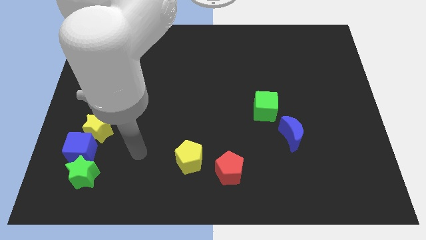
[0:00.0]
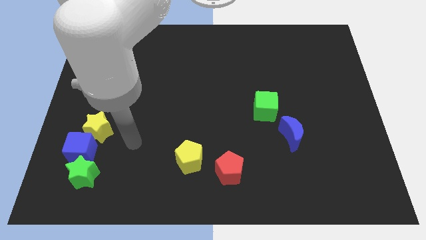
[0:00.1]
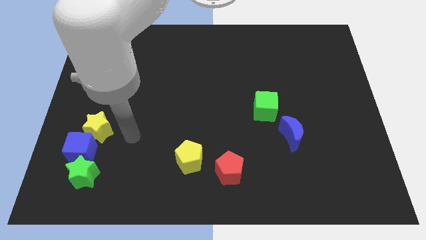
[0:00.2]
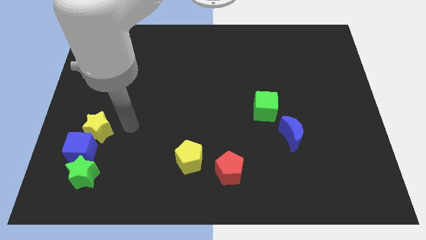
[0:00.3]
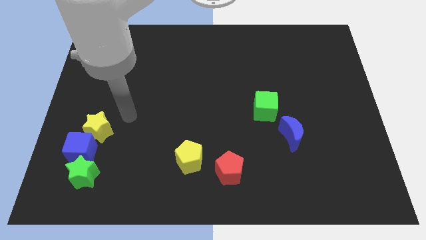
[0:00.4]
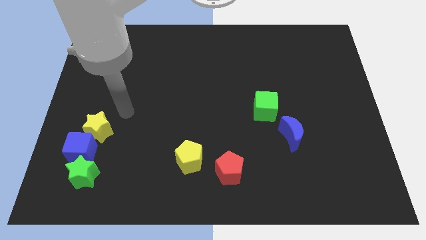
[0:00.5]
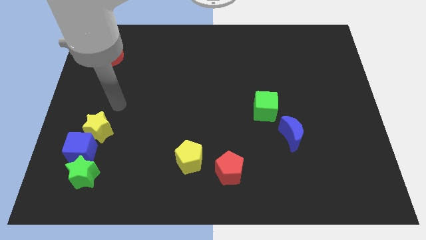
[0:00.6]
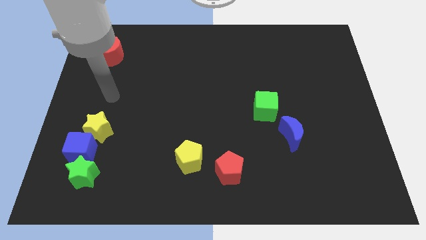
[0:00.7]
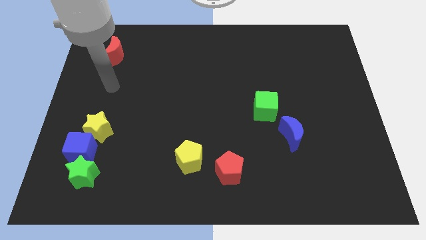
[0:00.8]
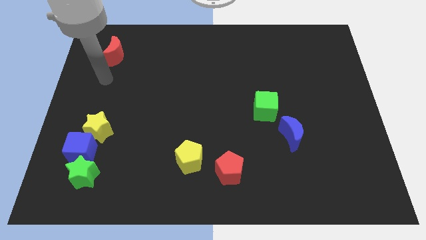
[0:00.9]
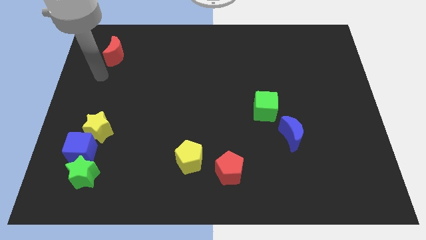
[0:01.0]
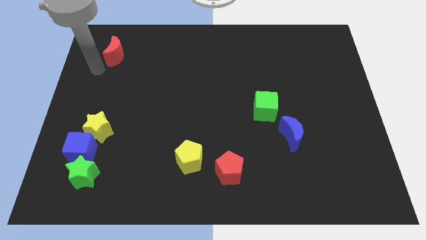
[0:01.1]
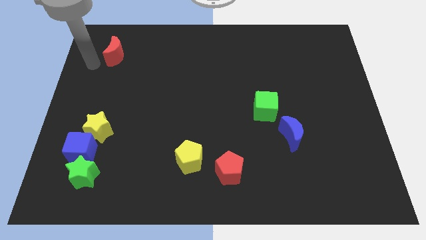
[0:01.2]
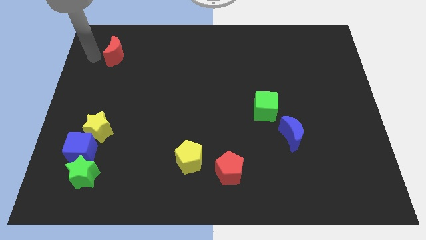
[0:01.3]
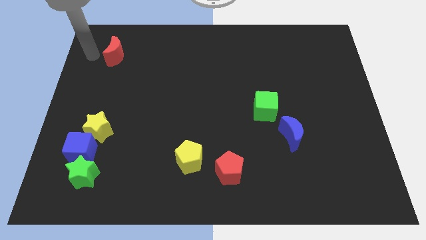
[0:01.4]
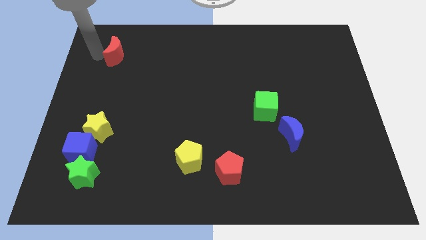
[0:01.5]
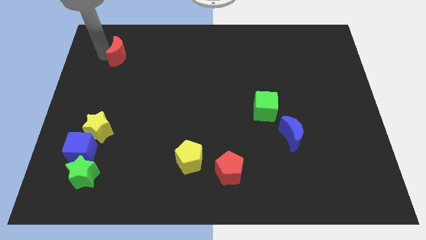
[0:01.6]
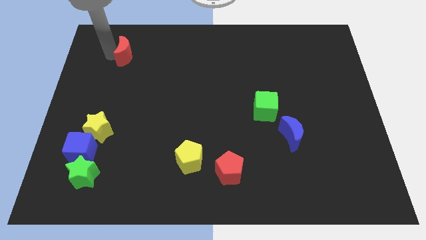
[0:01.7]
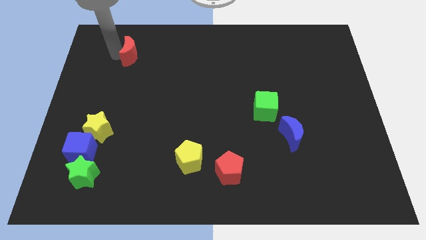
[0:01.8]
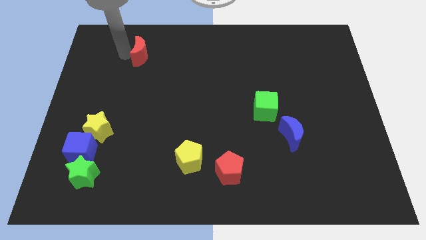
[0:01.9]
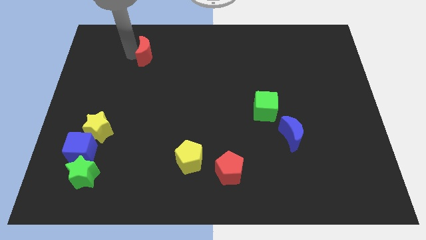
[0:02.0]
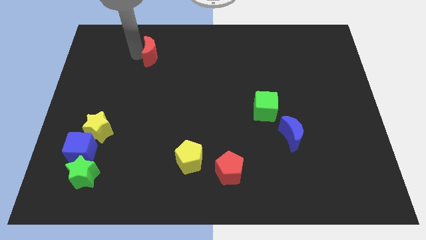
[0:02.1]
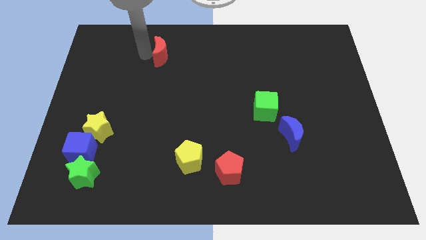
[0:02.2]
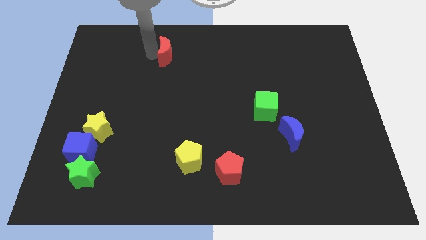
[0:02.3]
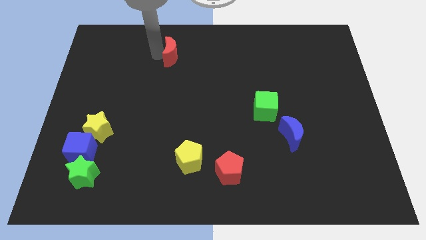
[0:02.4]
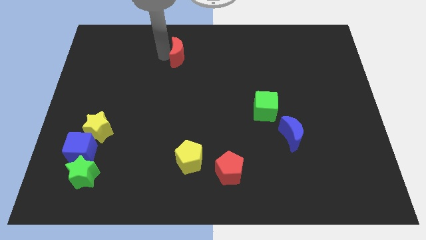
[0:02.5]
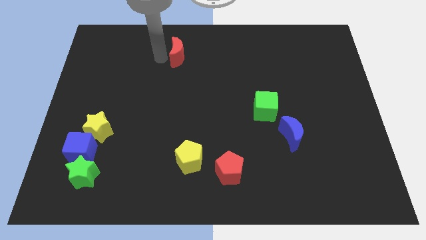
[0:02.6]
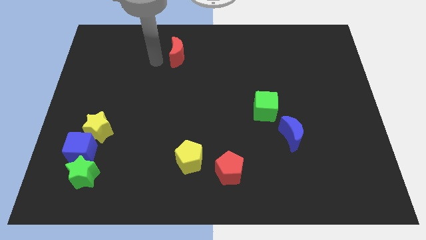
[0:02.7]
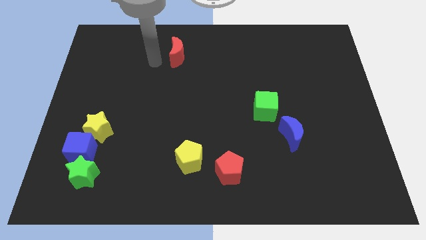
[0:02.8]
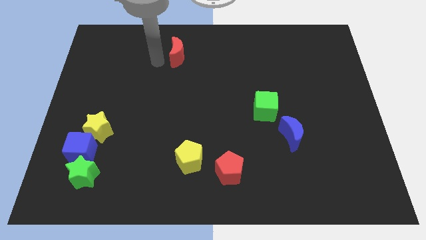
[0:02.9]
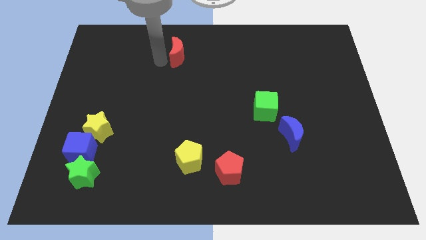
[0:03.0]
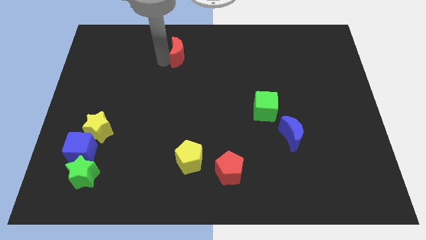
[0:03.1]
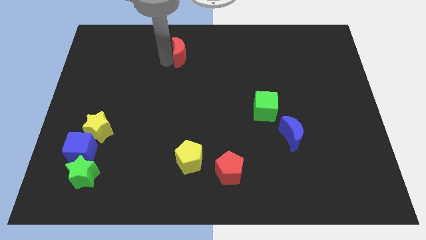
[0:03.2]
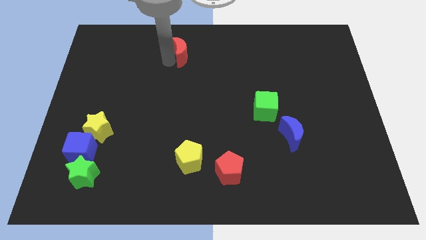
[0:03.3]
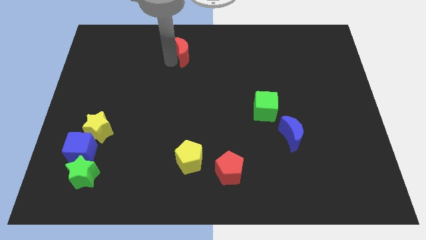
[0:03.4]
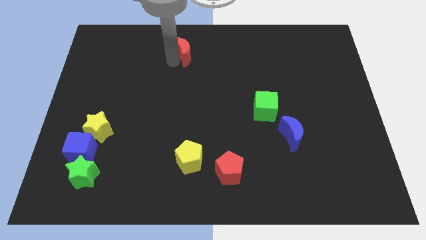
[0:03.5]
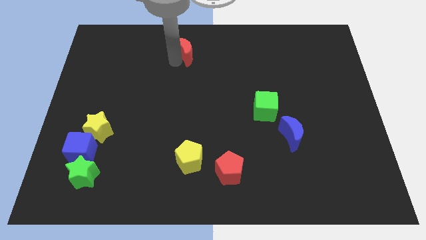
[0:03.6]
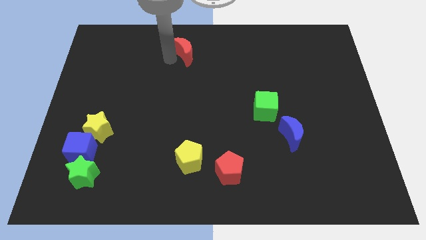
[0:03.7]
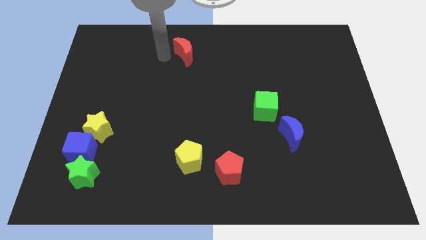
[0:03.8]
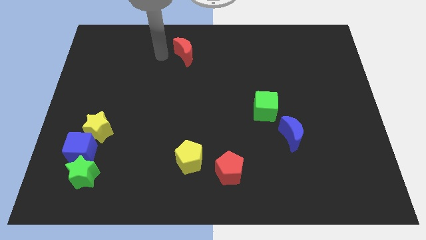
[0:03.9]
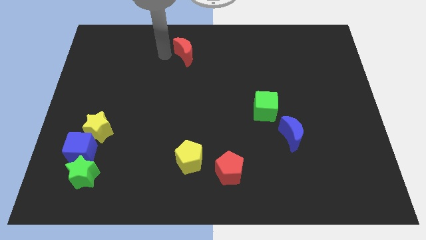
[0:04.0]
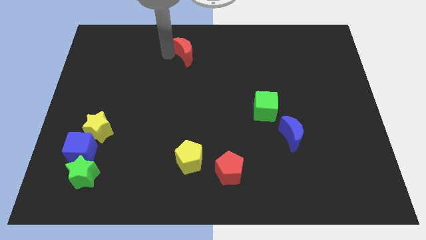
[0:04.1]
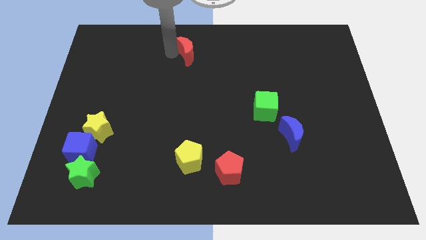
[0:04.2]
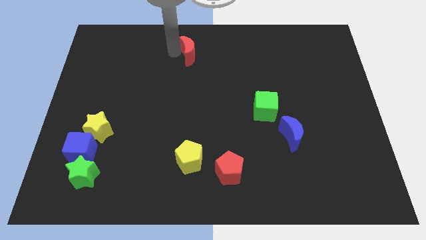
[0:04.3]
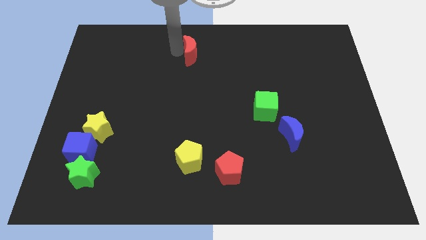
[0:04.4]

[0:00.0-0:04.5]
move the red moon right

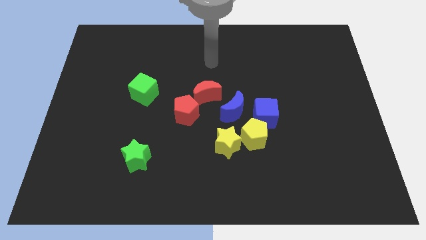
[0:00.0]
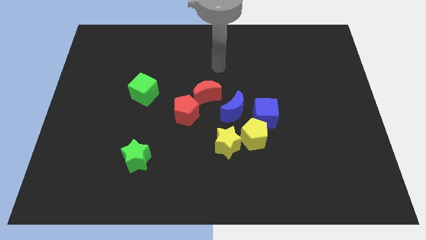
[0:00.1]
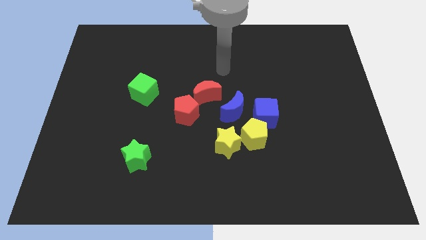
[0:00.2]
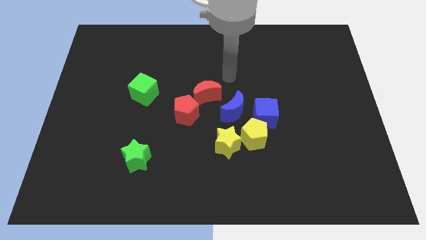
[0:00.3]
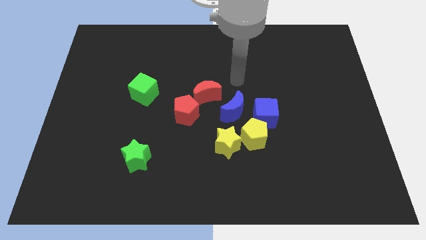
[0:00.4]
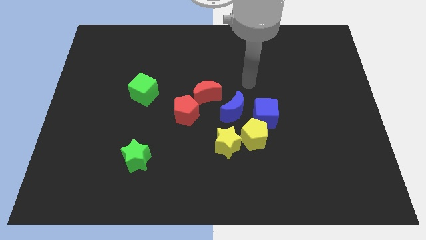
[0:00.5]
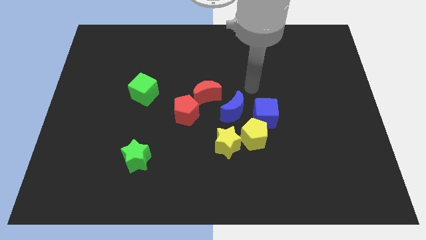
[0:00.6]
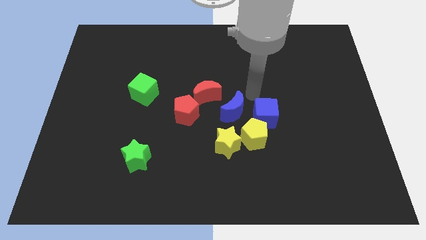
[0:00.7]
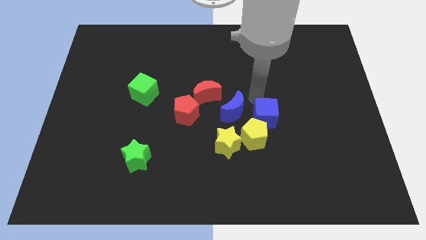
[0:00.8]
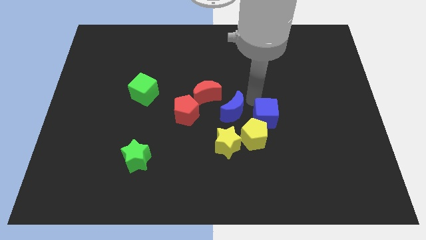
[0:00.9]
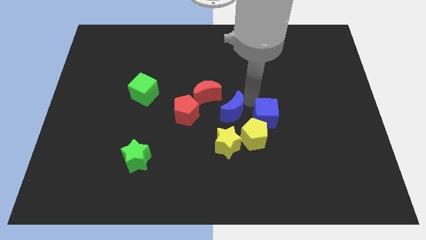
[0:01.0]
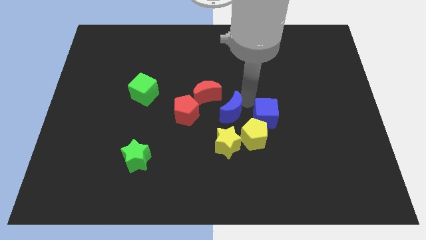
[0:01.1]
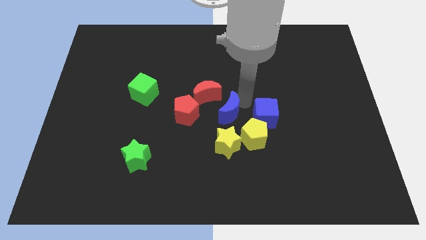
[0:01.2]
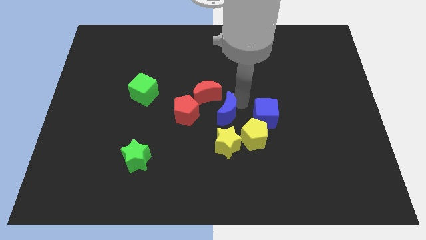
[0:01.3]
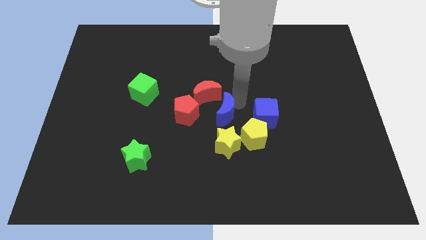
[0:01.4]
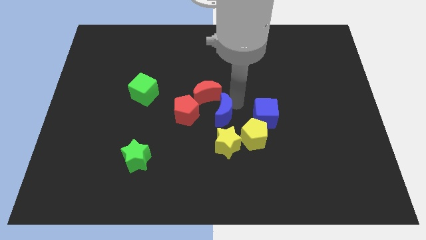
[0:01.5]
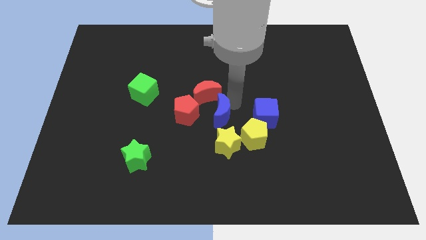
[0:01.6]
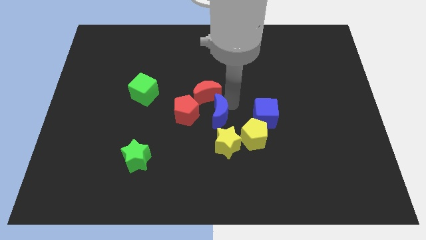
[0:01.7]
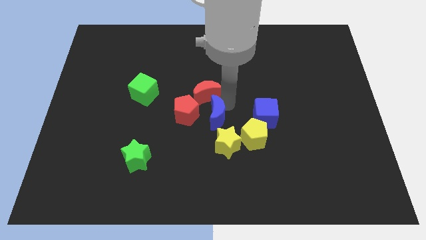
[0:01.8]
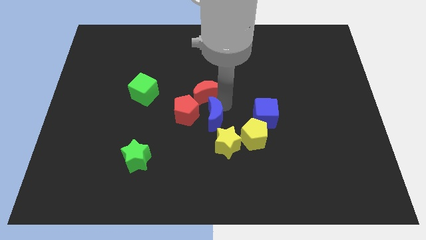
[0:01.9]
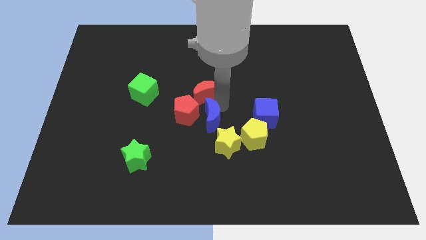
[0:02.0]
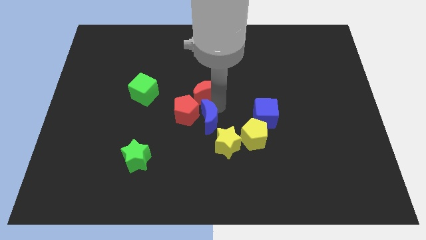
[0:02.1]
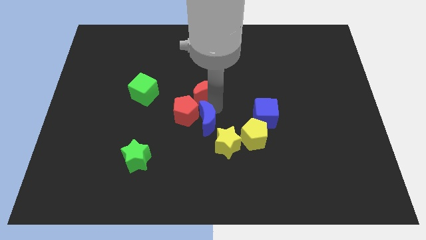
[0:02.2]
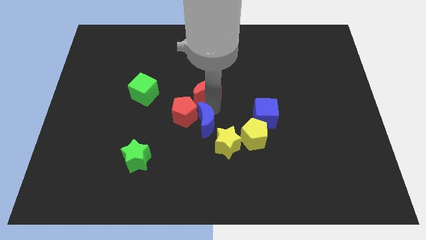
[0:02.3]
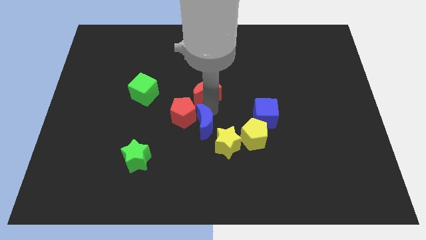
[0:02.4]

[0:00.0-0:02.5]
push the blue moon a little down and to the left

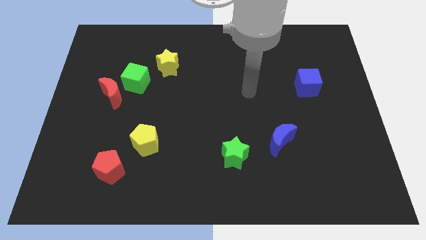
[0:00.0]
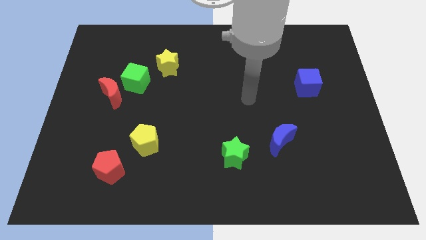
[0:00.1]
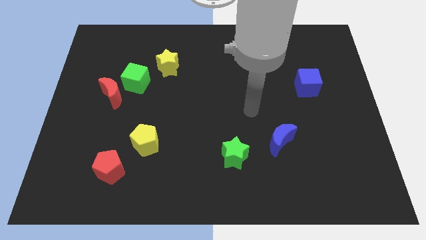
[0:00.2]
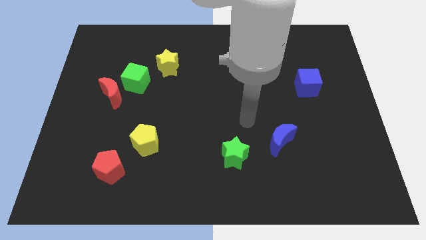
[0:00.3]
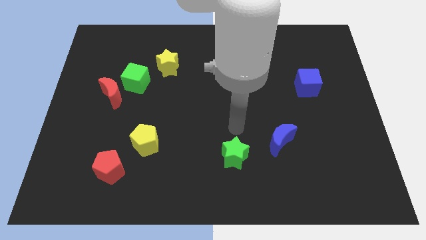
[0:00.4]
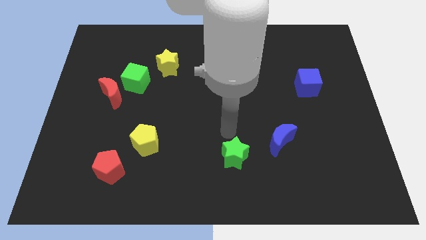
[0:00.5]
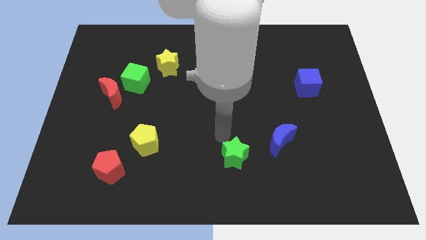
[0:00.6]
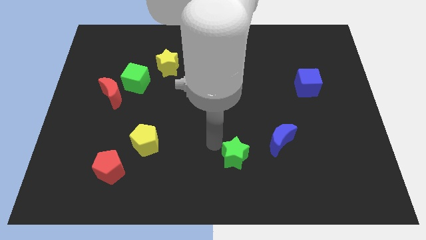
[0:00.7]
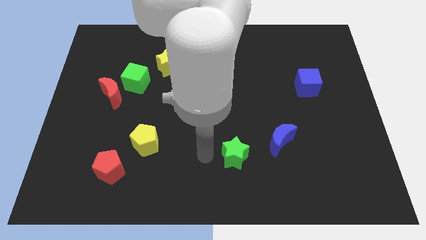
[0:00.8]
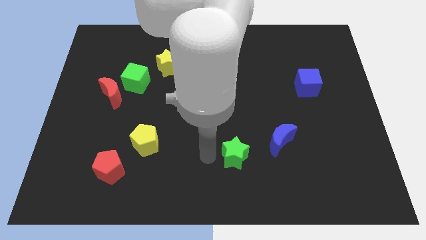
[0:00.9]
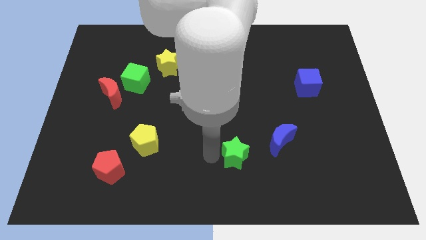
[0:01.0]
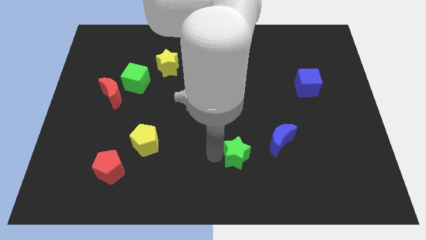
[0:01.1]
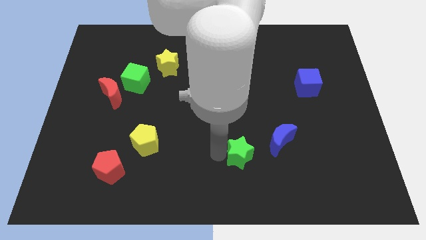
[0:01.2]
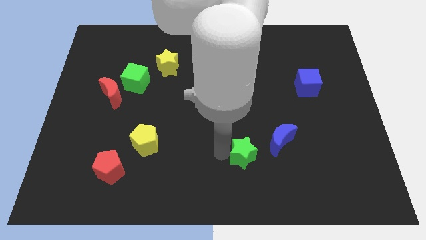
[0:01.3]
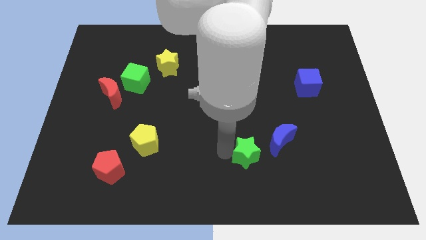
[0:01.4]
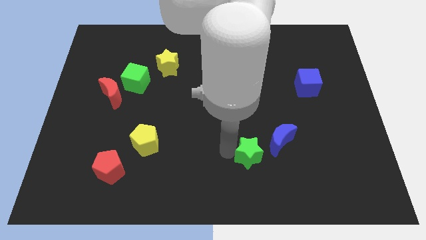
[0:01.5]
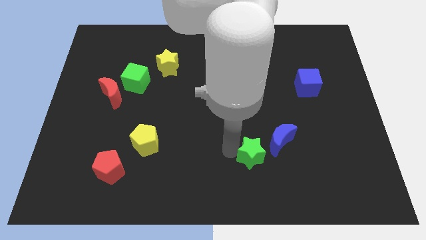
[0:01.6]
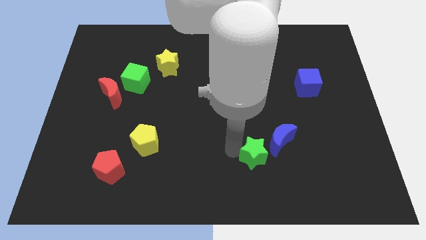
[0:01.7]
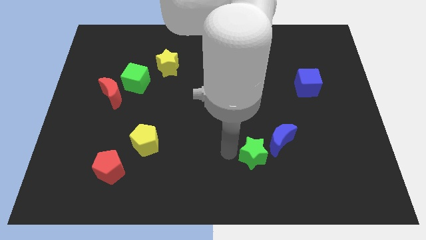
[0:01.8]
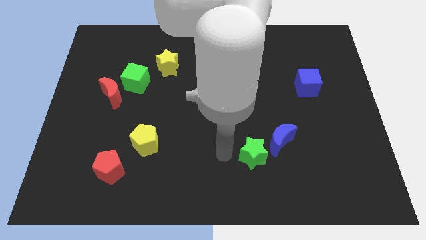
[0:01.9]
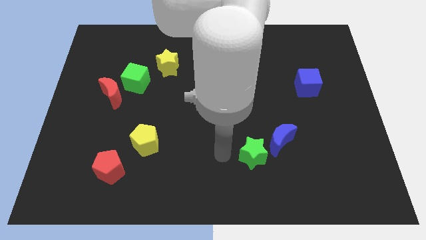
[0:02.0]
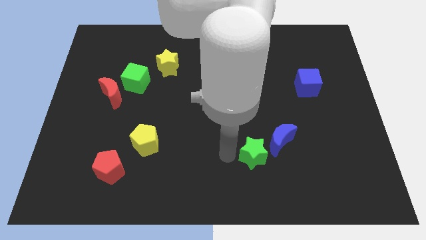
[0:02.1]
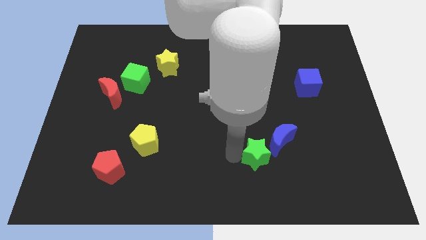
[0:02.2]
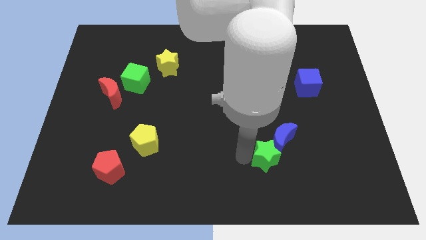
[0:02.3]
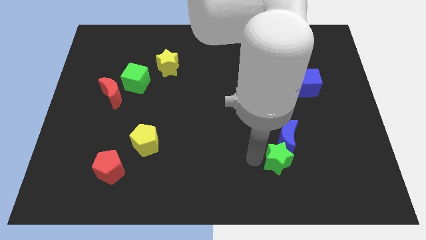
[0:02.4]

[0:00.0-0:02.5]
move the green star a bit to the right
